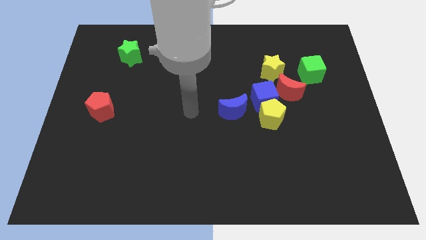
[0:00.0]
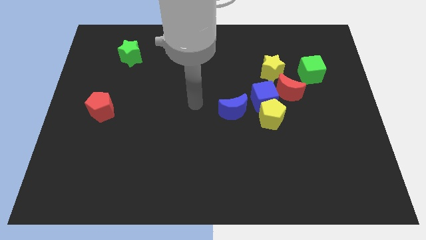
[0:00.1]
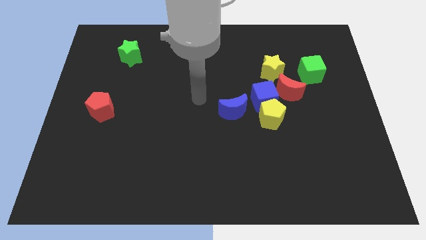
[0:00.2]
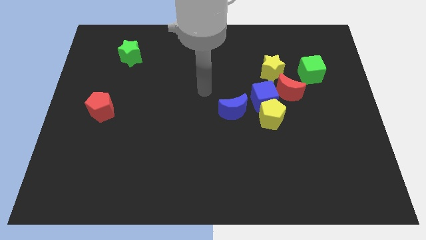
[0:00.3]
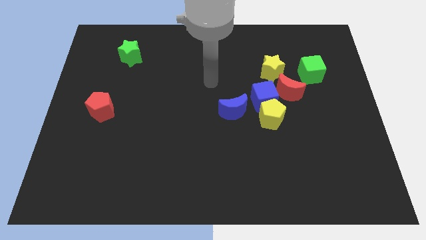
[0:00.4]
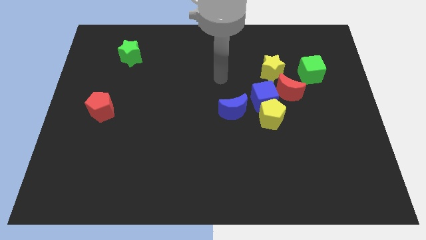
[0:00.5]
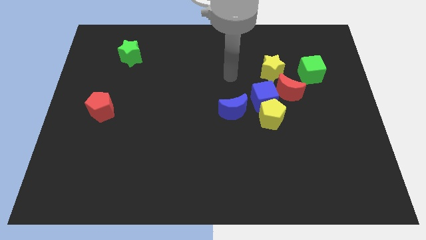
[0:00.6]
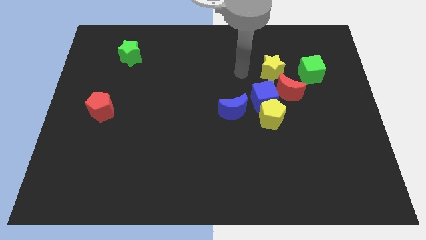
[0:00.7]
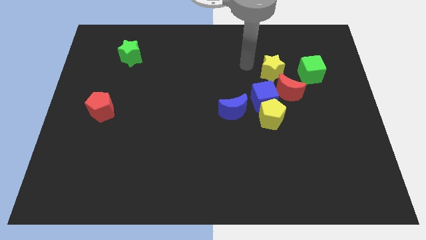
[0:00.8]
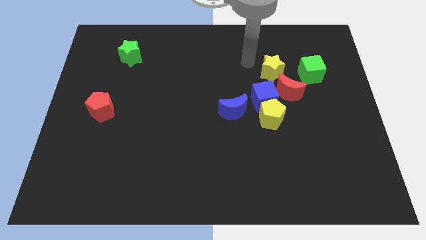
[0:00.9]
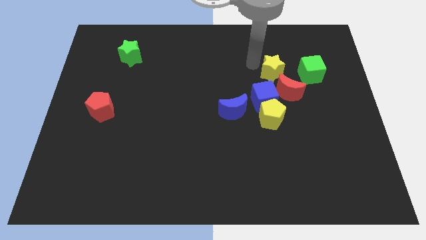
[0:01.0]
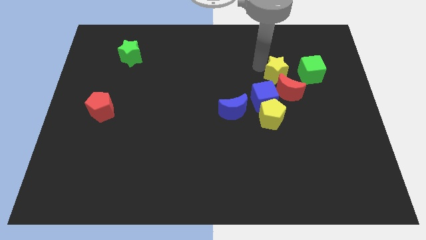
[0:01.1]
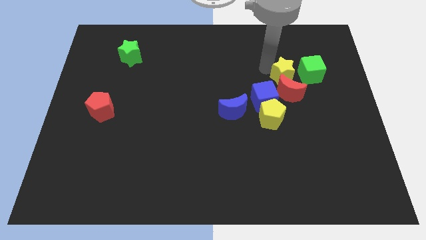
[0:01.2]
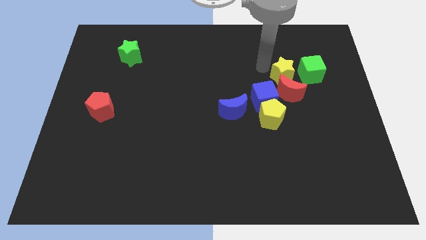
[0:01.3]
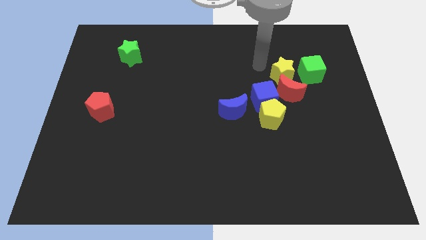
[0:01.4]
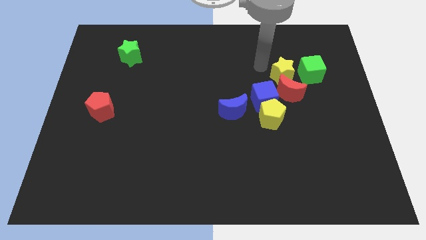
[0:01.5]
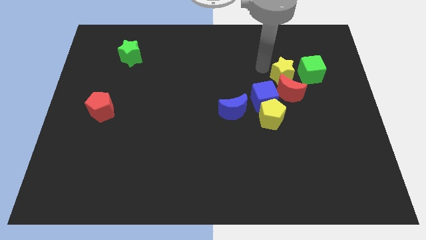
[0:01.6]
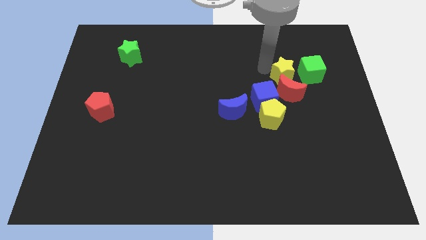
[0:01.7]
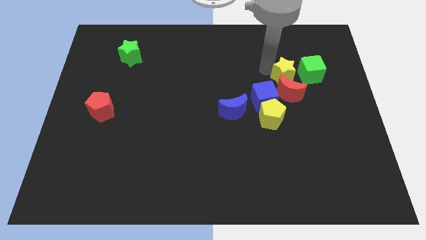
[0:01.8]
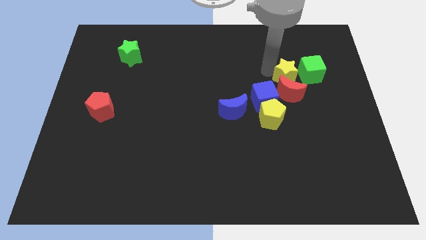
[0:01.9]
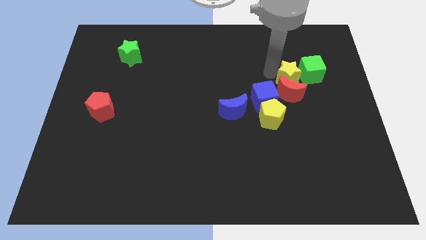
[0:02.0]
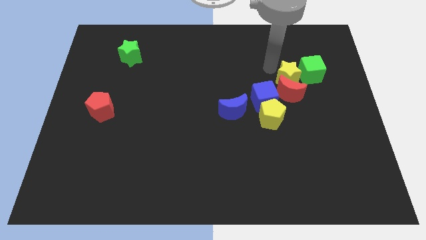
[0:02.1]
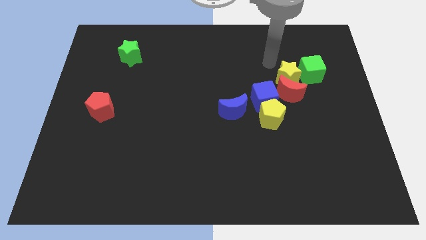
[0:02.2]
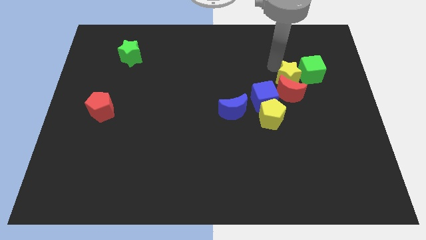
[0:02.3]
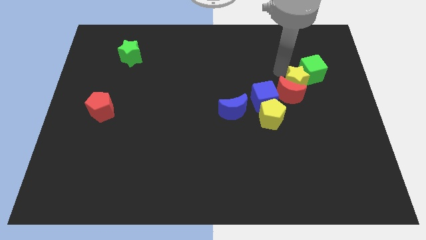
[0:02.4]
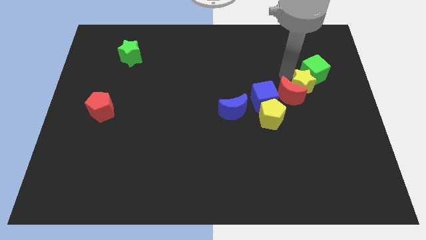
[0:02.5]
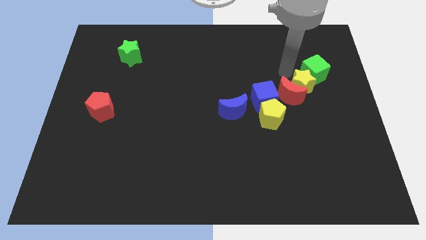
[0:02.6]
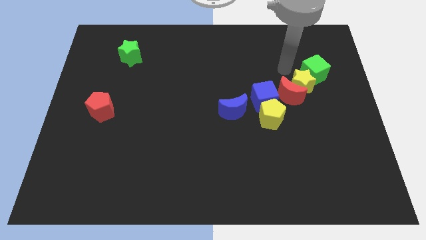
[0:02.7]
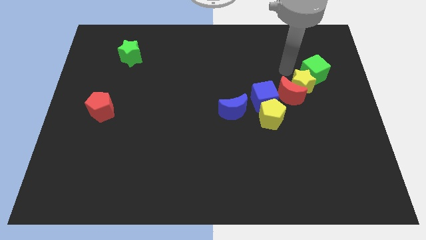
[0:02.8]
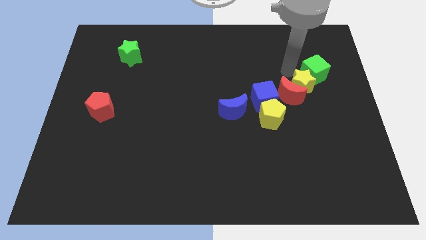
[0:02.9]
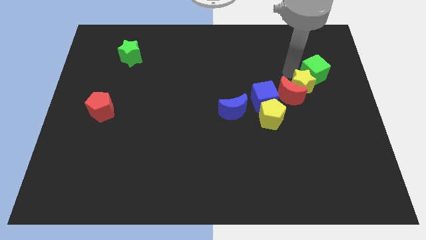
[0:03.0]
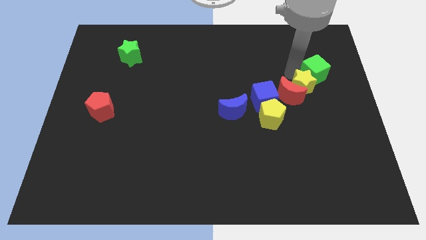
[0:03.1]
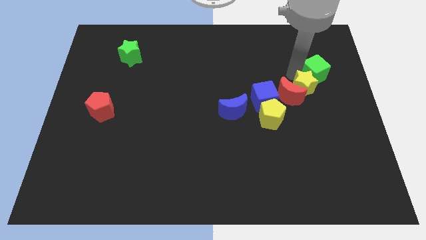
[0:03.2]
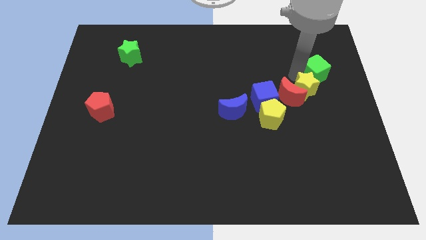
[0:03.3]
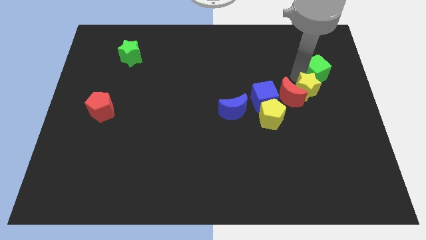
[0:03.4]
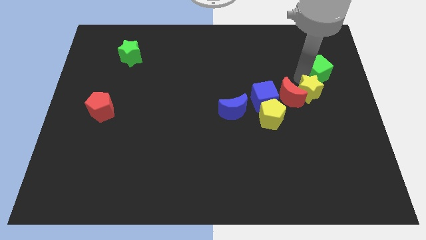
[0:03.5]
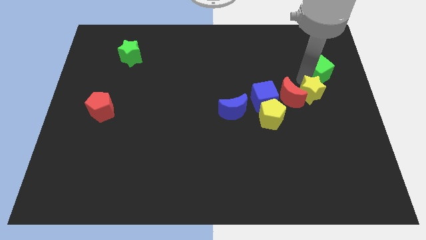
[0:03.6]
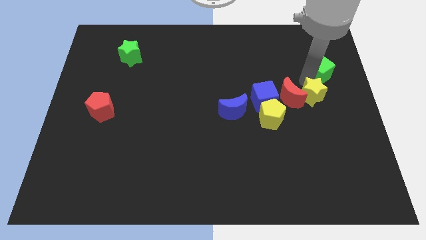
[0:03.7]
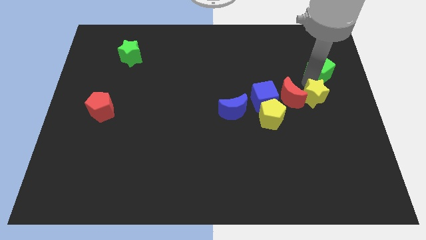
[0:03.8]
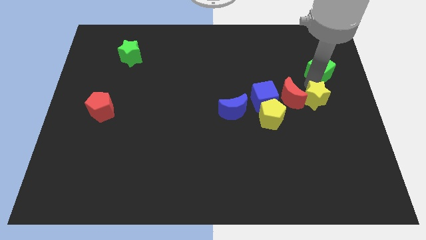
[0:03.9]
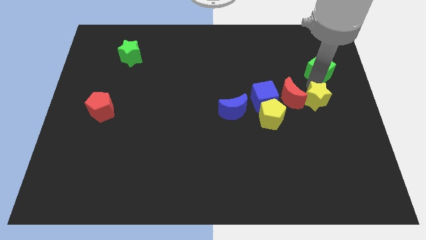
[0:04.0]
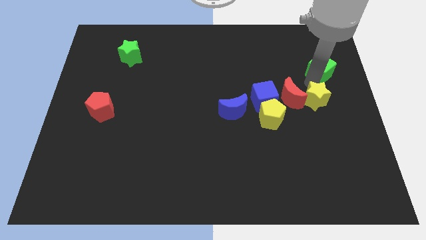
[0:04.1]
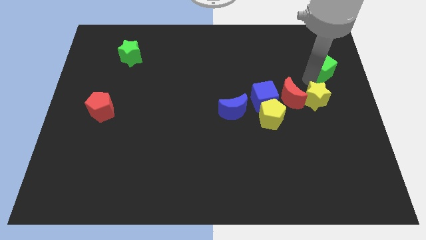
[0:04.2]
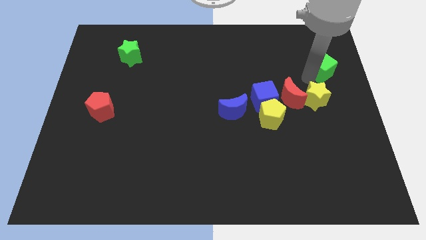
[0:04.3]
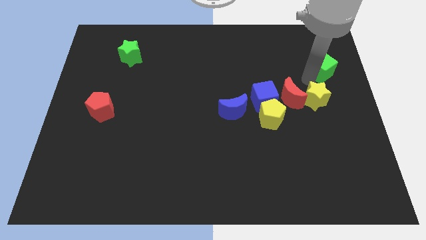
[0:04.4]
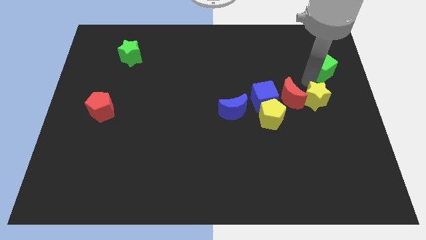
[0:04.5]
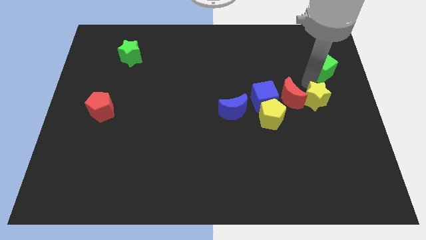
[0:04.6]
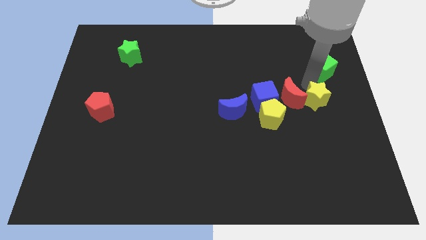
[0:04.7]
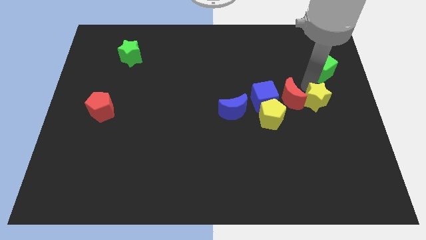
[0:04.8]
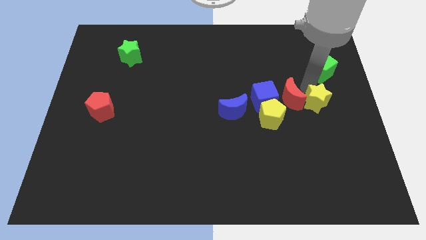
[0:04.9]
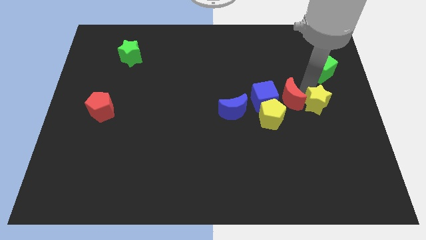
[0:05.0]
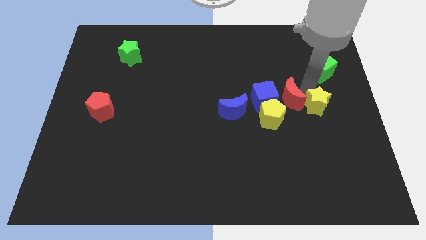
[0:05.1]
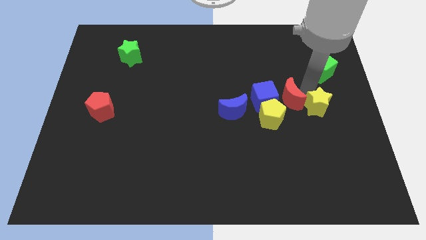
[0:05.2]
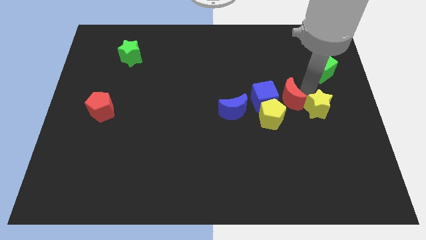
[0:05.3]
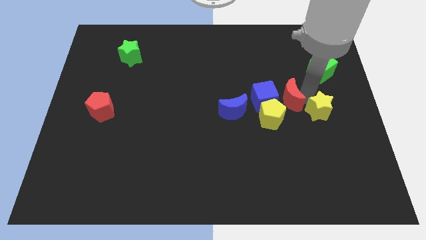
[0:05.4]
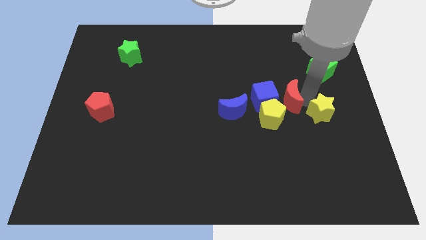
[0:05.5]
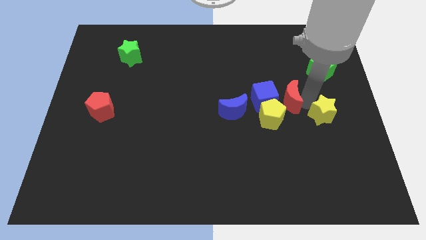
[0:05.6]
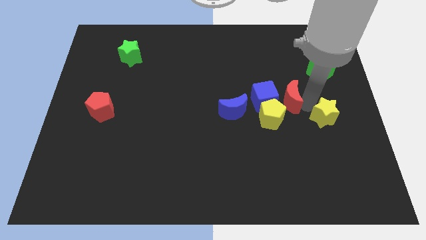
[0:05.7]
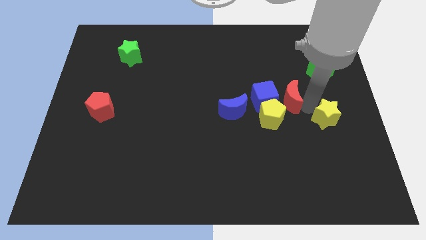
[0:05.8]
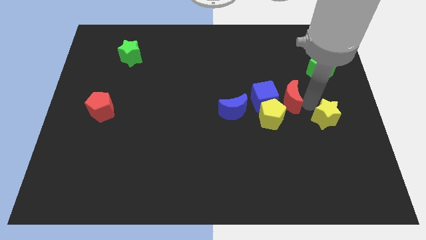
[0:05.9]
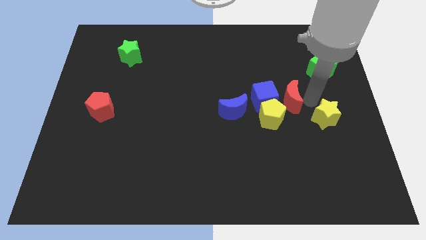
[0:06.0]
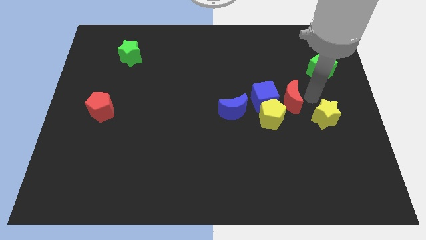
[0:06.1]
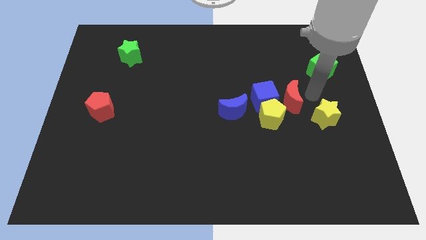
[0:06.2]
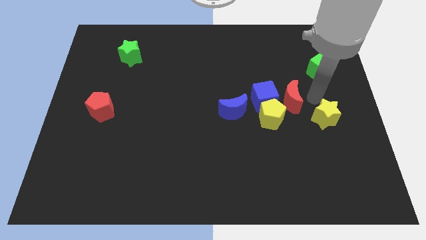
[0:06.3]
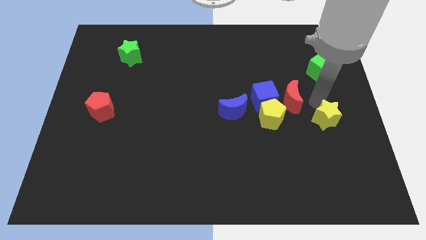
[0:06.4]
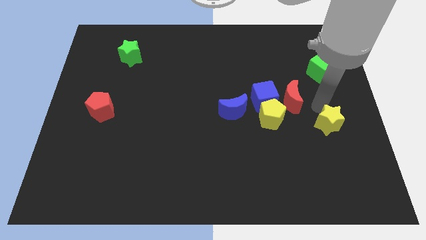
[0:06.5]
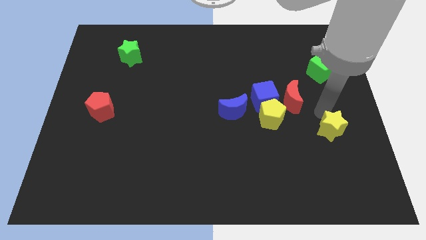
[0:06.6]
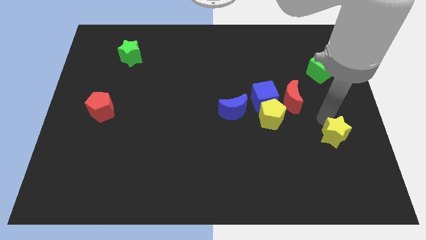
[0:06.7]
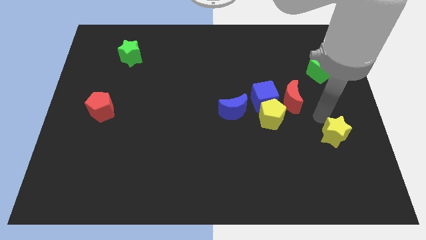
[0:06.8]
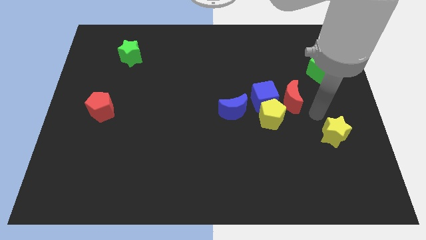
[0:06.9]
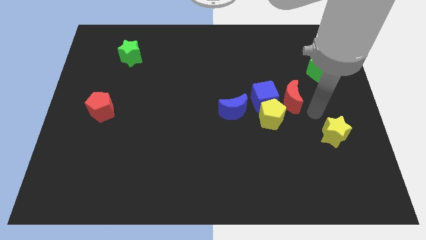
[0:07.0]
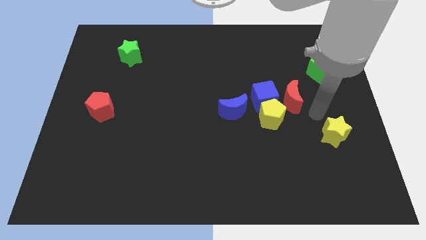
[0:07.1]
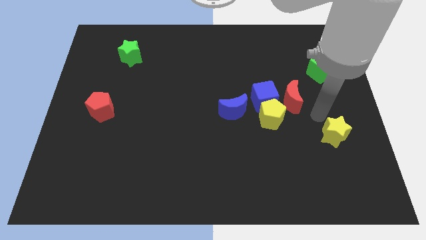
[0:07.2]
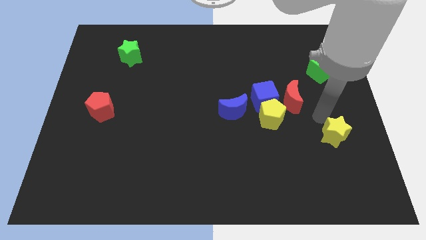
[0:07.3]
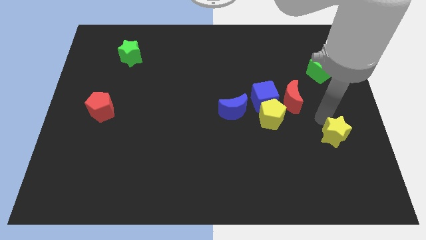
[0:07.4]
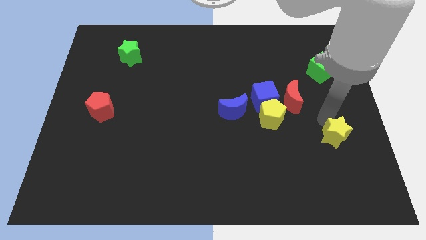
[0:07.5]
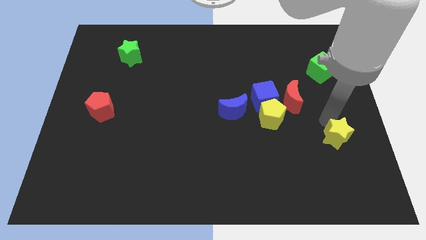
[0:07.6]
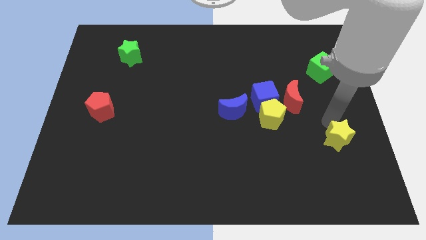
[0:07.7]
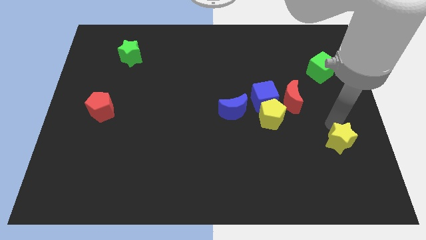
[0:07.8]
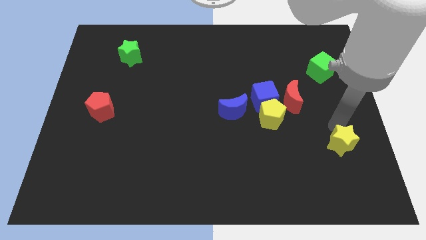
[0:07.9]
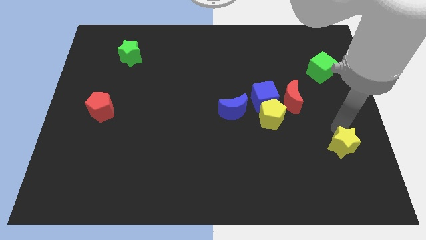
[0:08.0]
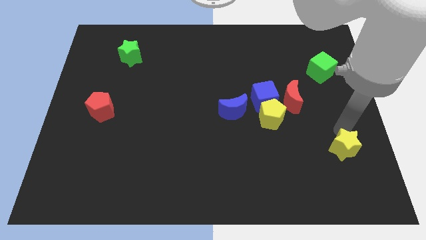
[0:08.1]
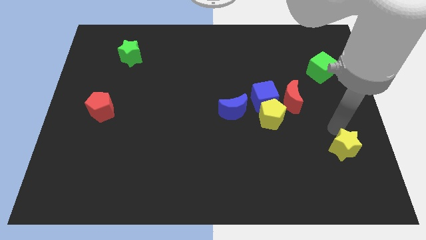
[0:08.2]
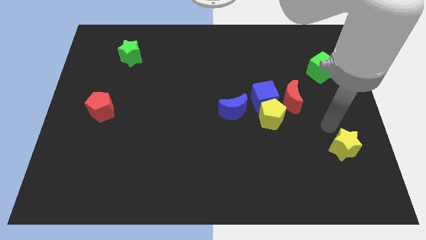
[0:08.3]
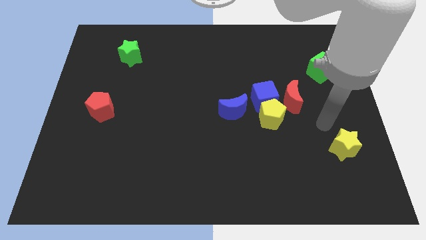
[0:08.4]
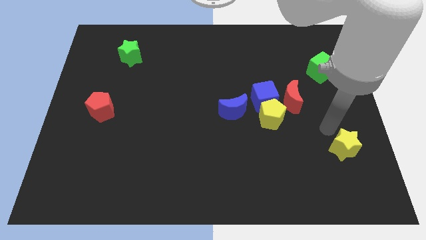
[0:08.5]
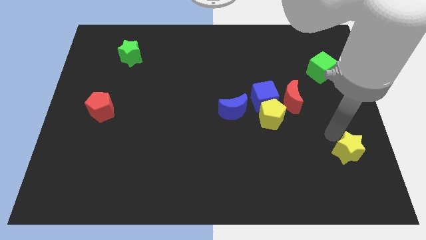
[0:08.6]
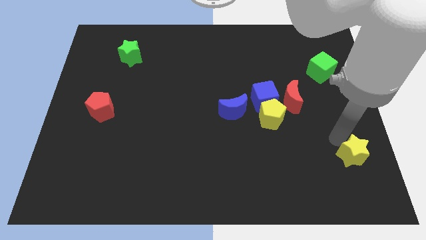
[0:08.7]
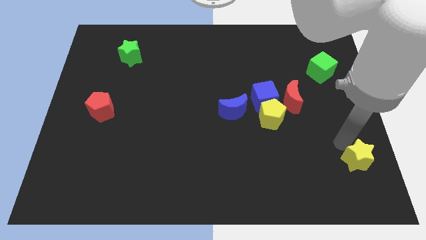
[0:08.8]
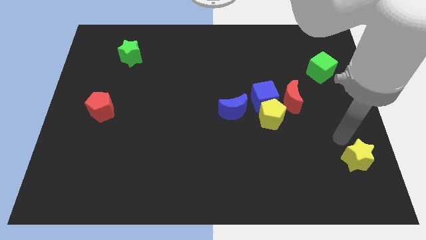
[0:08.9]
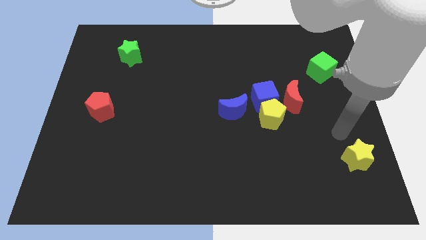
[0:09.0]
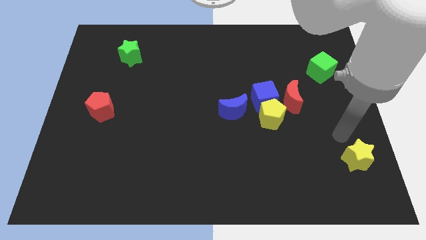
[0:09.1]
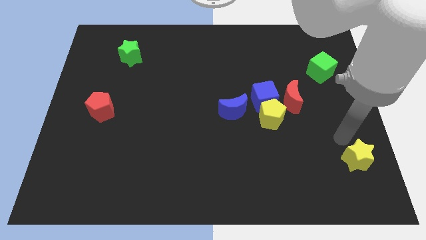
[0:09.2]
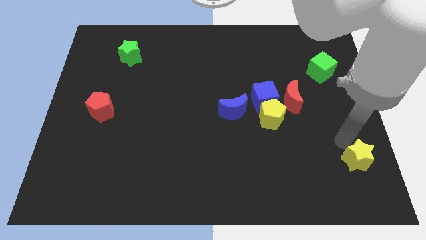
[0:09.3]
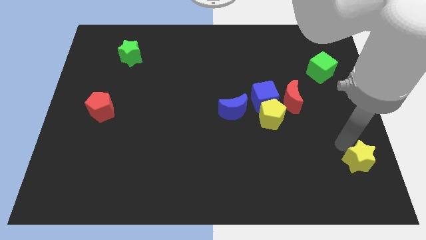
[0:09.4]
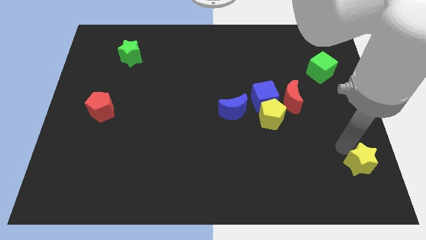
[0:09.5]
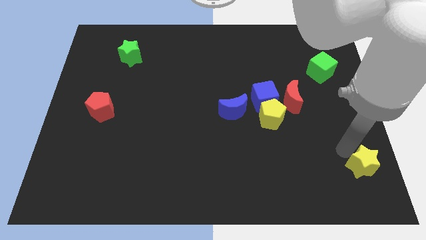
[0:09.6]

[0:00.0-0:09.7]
put the yellow star to the bottom right of the board
